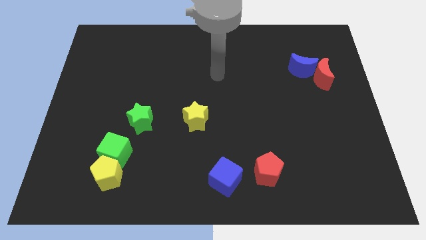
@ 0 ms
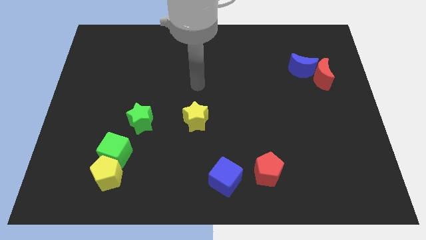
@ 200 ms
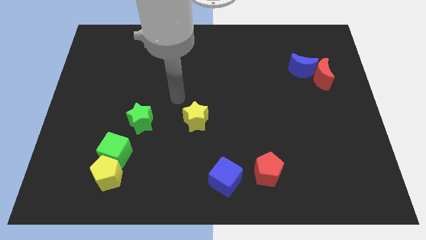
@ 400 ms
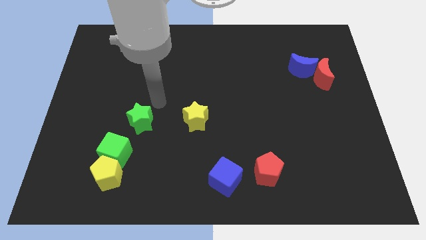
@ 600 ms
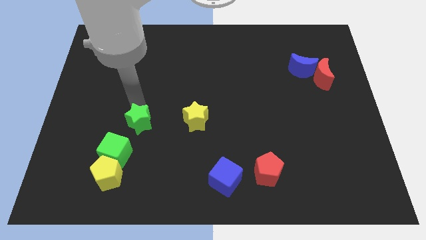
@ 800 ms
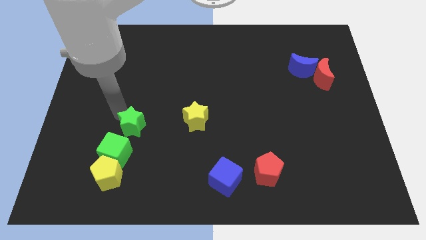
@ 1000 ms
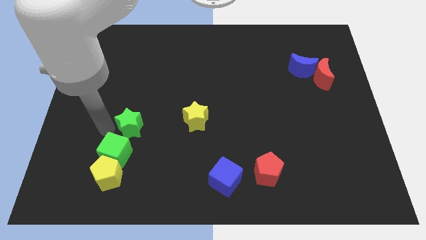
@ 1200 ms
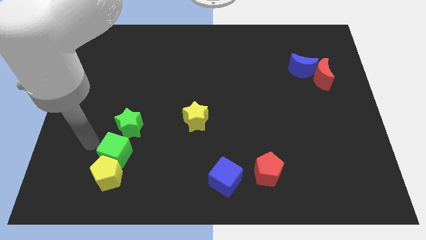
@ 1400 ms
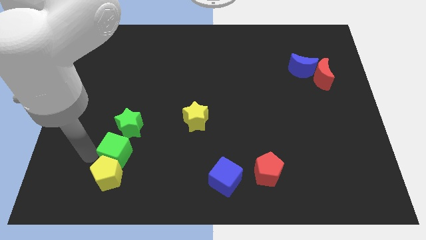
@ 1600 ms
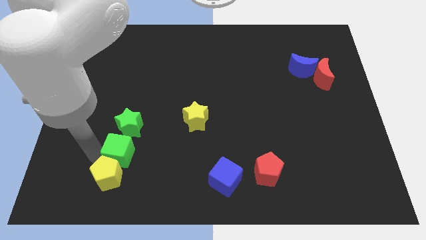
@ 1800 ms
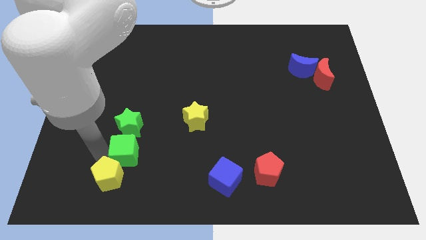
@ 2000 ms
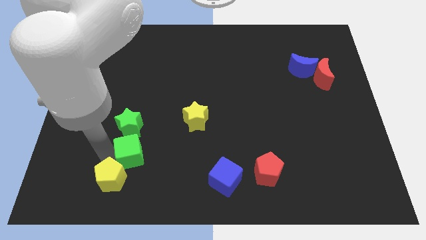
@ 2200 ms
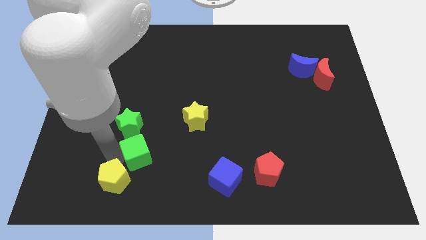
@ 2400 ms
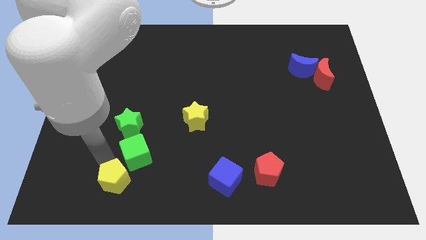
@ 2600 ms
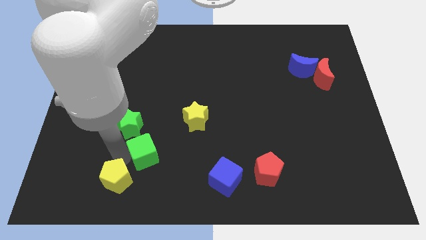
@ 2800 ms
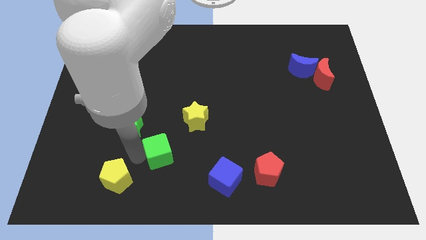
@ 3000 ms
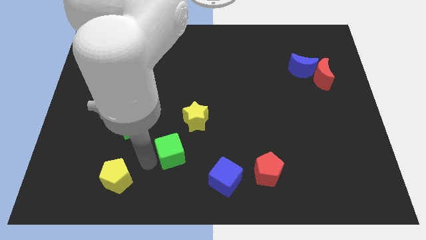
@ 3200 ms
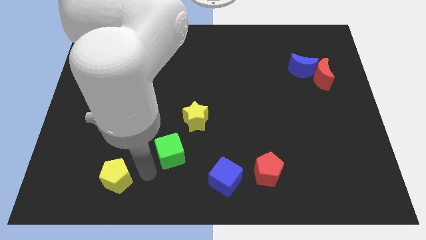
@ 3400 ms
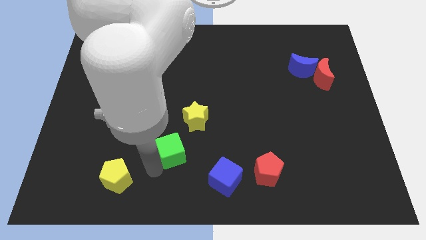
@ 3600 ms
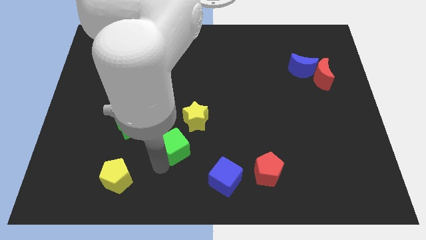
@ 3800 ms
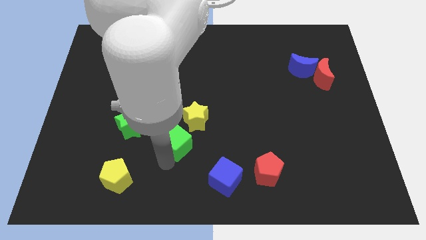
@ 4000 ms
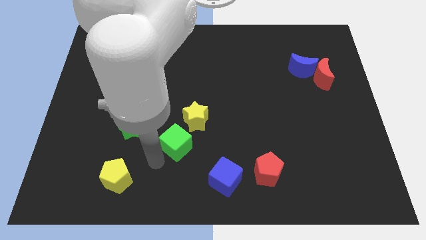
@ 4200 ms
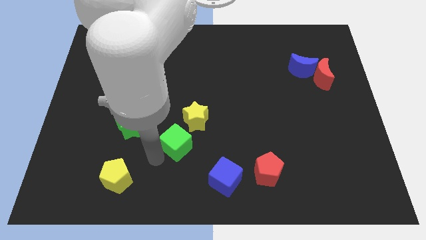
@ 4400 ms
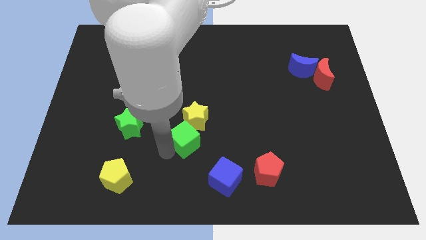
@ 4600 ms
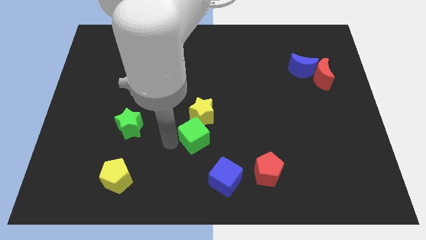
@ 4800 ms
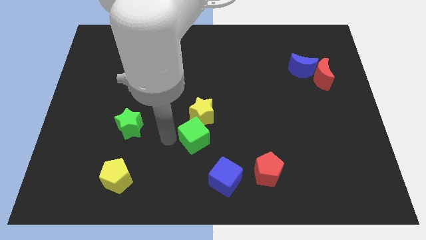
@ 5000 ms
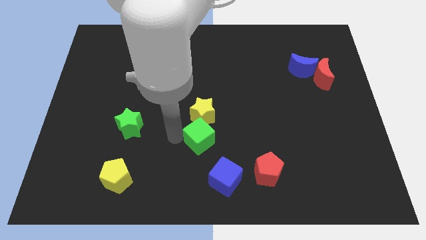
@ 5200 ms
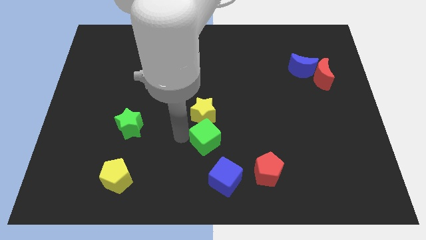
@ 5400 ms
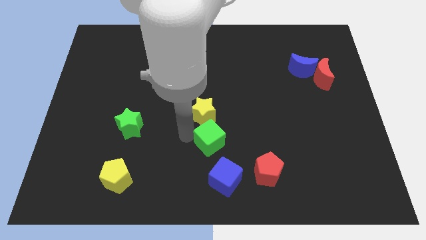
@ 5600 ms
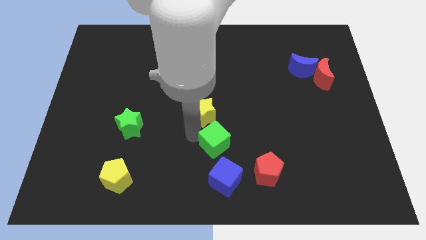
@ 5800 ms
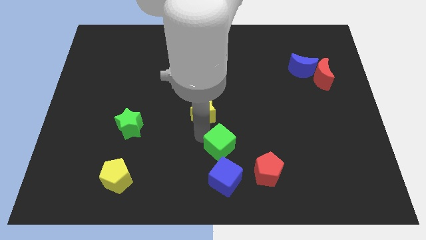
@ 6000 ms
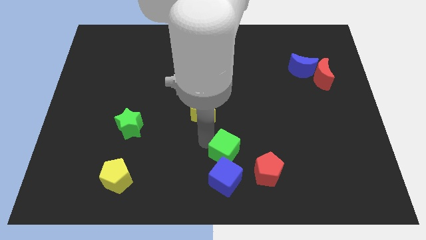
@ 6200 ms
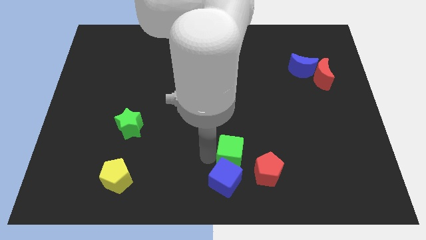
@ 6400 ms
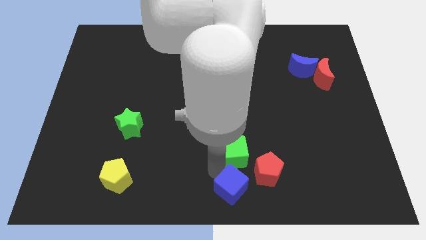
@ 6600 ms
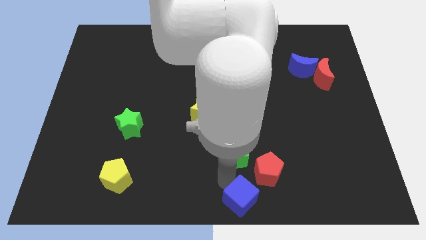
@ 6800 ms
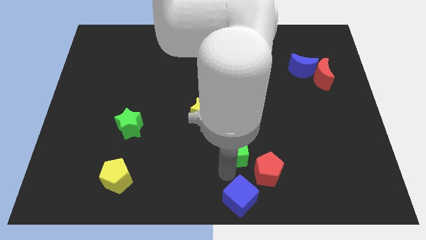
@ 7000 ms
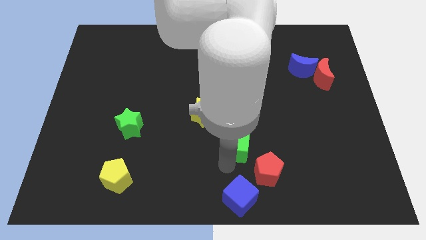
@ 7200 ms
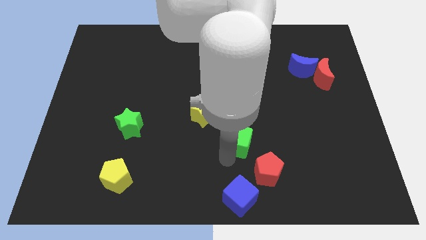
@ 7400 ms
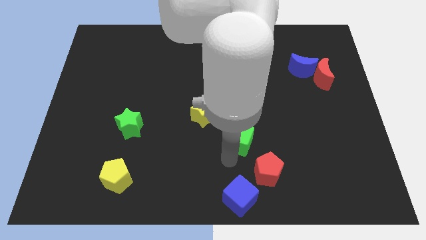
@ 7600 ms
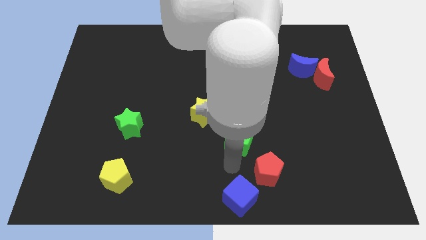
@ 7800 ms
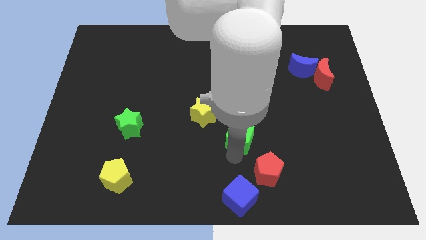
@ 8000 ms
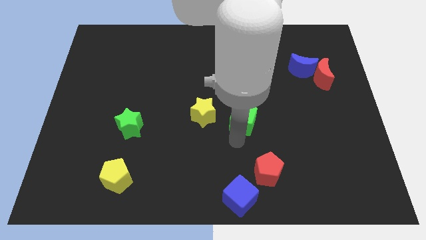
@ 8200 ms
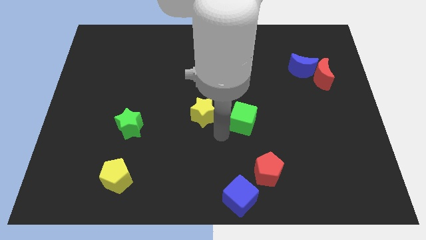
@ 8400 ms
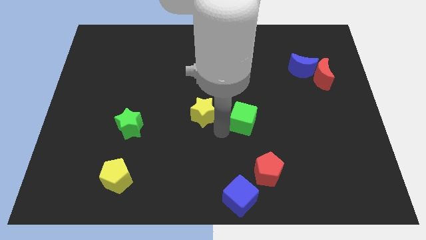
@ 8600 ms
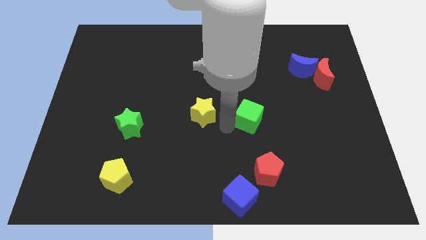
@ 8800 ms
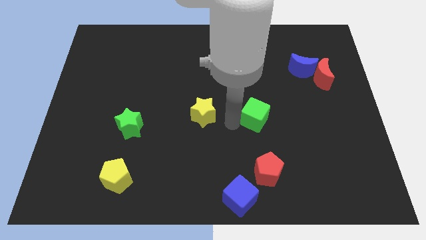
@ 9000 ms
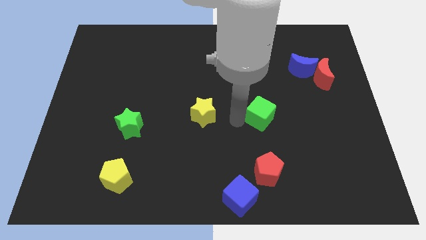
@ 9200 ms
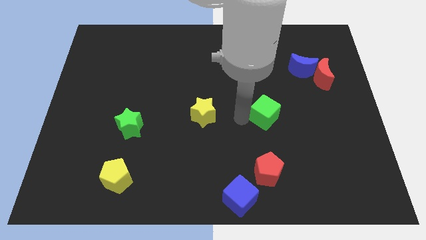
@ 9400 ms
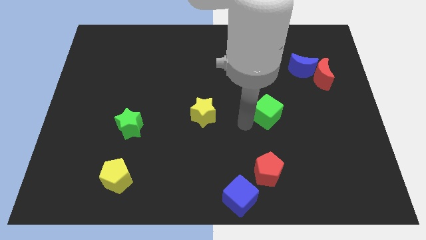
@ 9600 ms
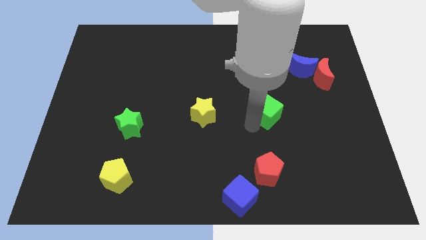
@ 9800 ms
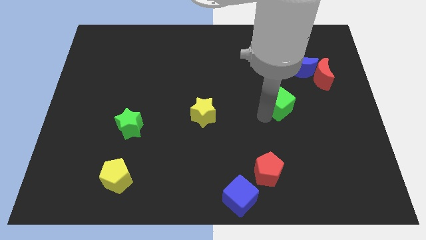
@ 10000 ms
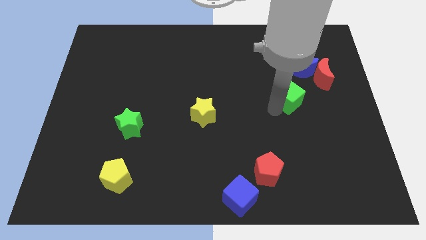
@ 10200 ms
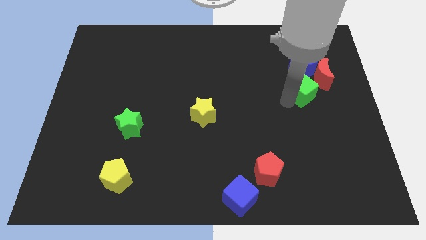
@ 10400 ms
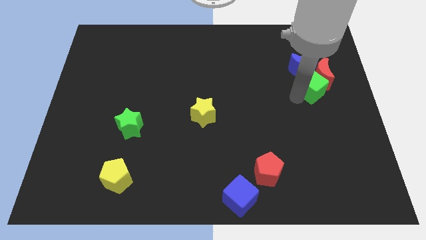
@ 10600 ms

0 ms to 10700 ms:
put the green cube towards the red moon

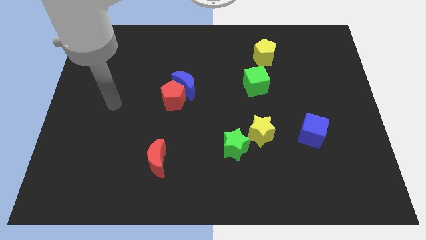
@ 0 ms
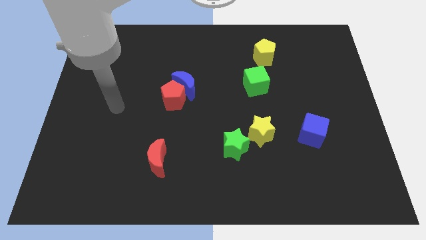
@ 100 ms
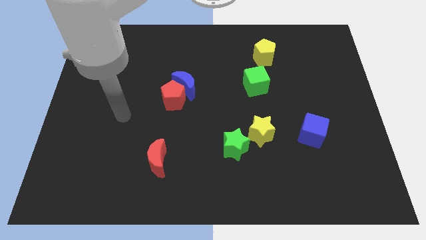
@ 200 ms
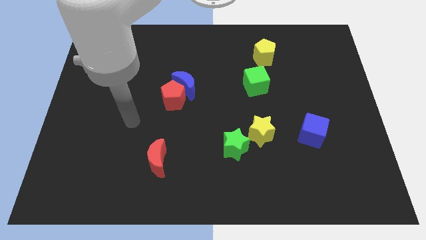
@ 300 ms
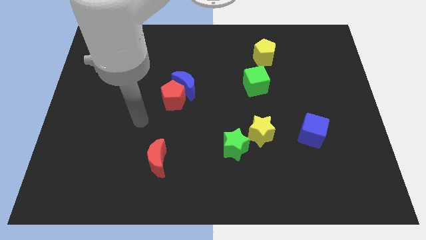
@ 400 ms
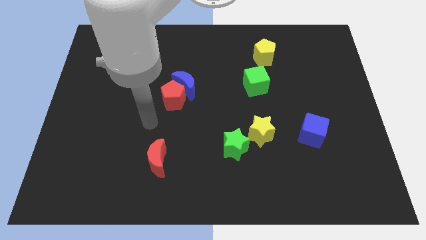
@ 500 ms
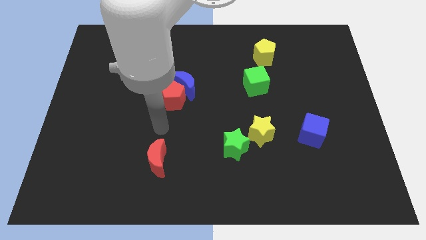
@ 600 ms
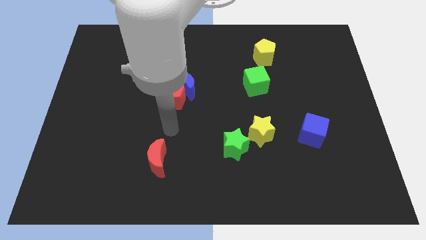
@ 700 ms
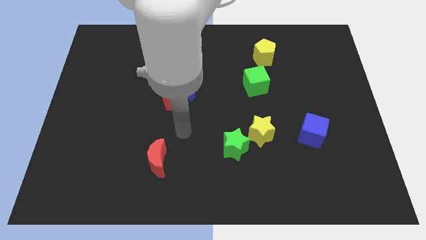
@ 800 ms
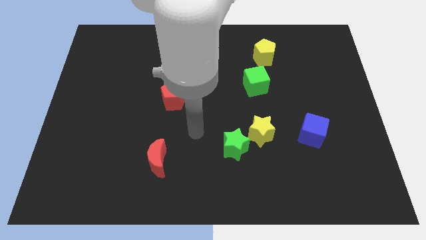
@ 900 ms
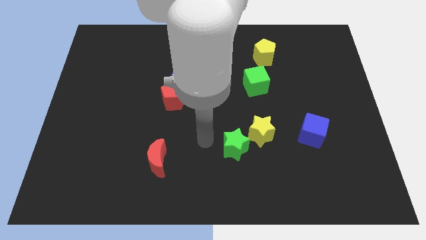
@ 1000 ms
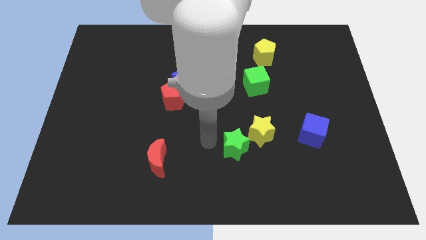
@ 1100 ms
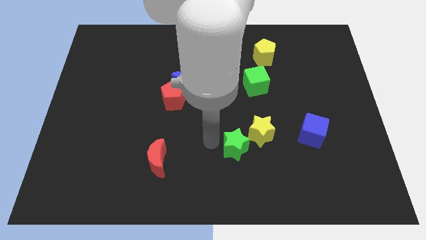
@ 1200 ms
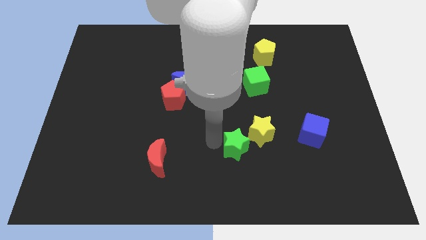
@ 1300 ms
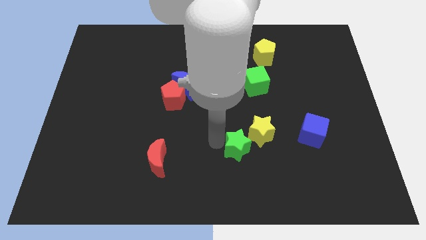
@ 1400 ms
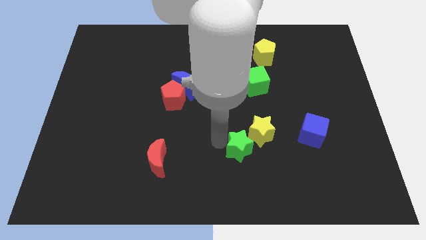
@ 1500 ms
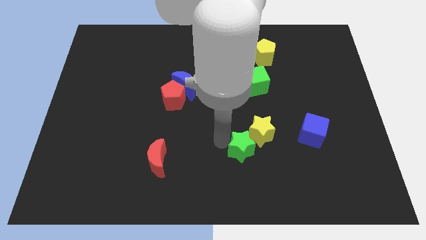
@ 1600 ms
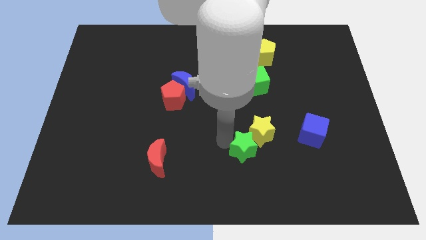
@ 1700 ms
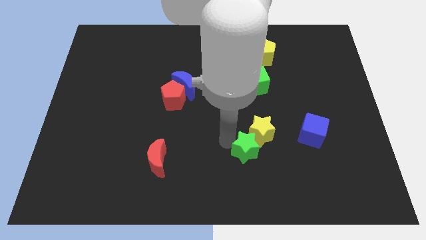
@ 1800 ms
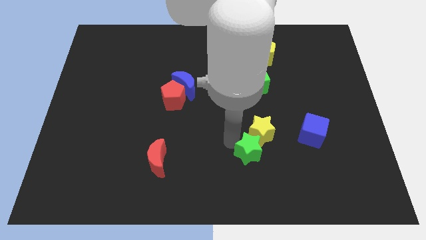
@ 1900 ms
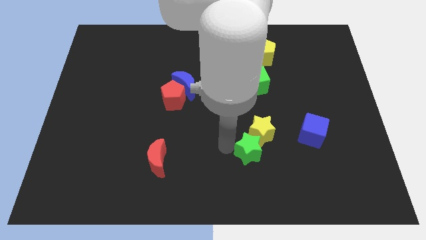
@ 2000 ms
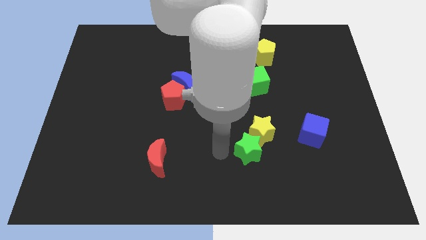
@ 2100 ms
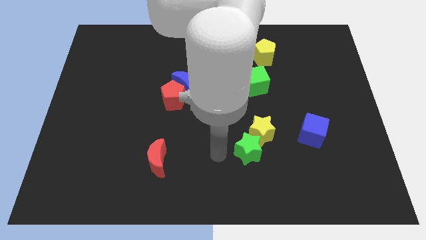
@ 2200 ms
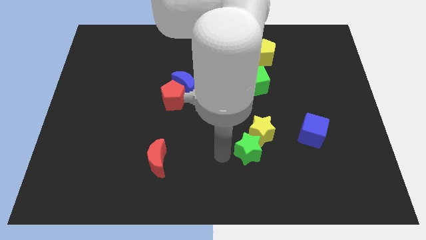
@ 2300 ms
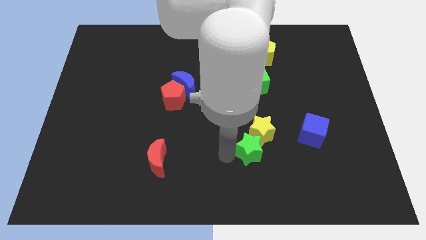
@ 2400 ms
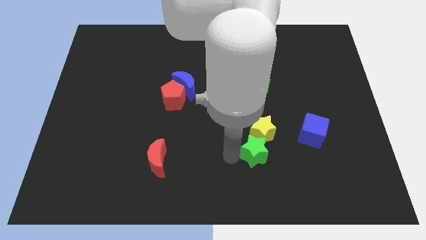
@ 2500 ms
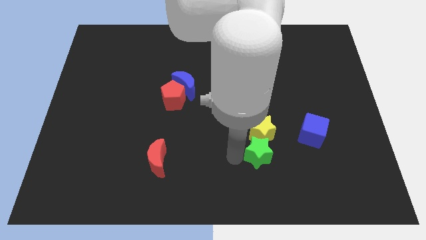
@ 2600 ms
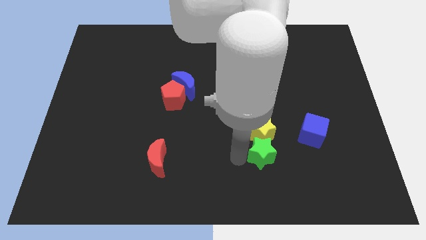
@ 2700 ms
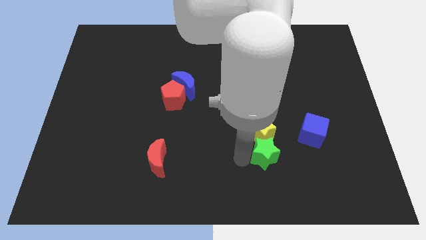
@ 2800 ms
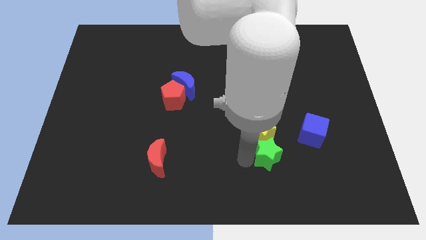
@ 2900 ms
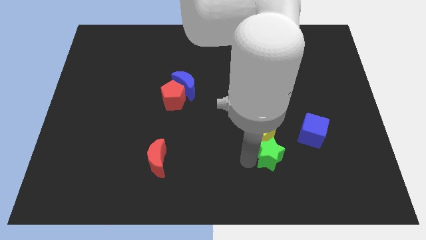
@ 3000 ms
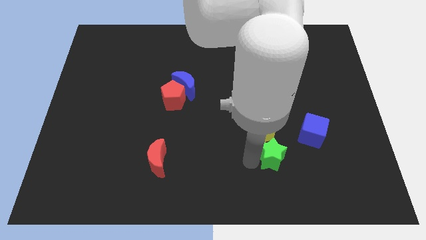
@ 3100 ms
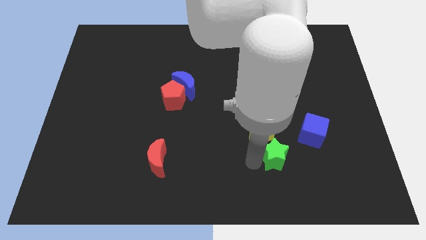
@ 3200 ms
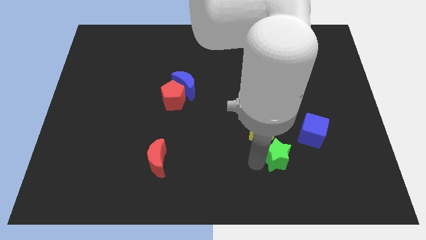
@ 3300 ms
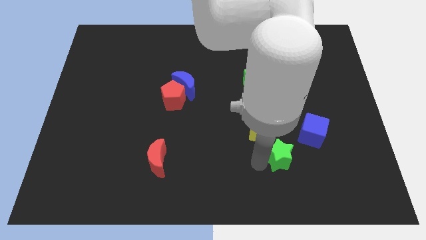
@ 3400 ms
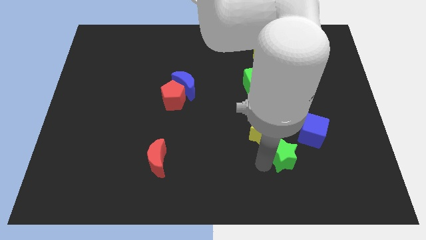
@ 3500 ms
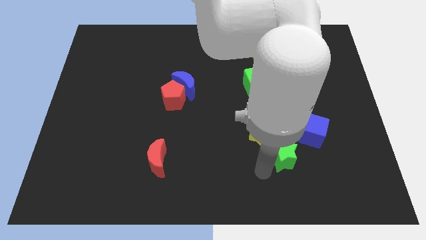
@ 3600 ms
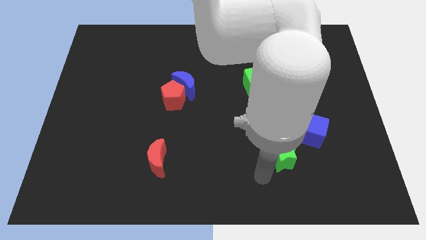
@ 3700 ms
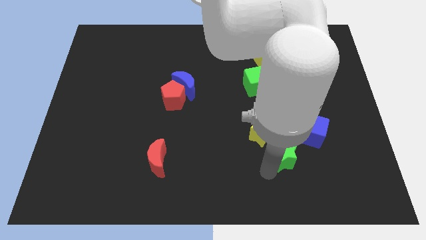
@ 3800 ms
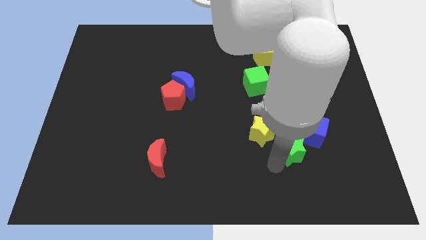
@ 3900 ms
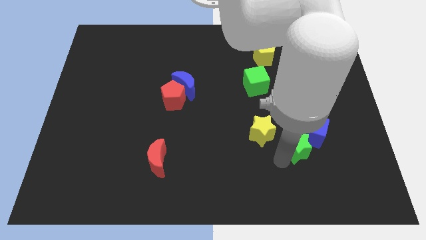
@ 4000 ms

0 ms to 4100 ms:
move the green star next to the blue cube
